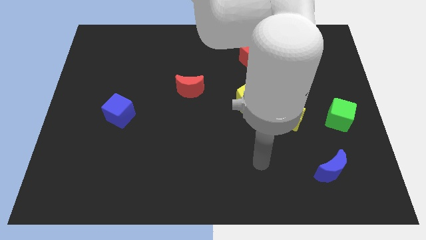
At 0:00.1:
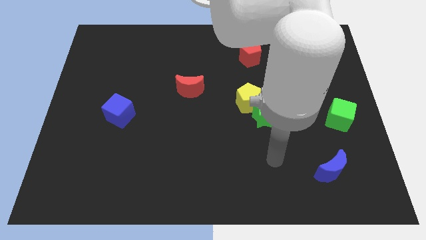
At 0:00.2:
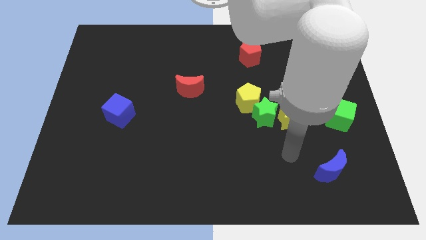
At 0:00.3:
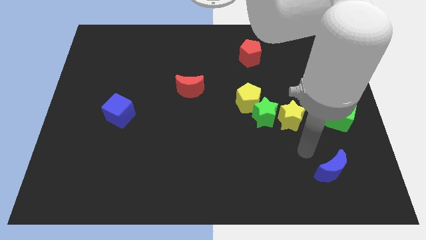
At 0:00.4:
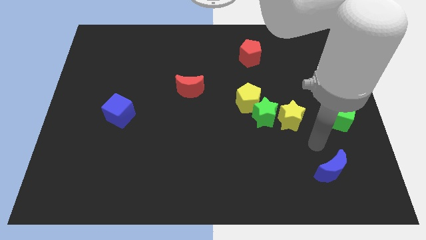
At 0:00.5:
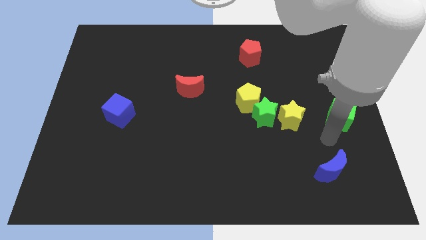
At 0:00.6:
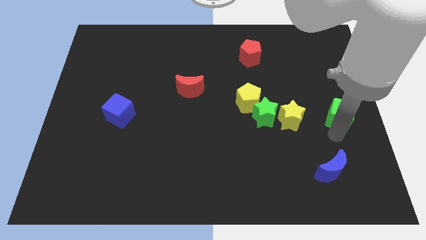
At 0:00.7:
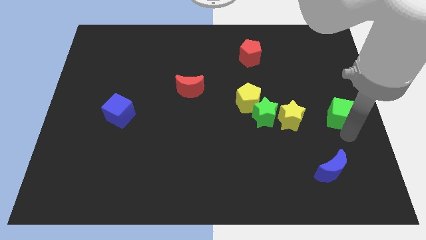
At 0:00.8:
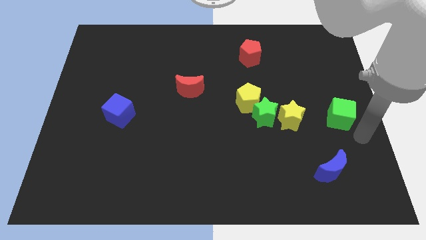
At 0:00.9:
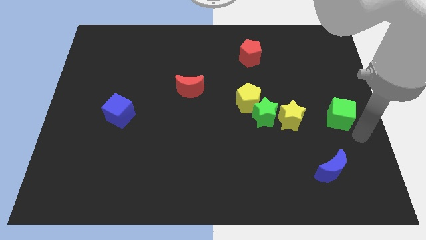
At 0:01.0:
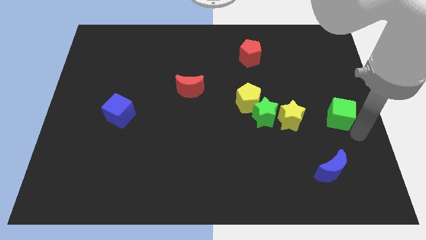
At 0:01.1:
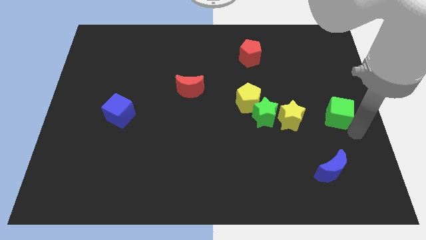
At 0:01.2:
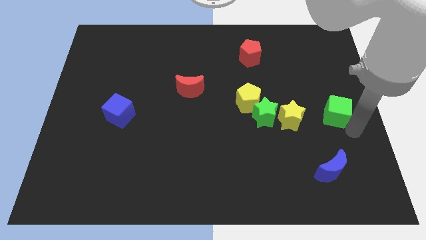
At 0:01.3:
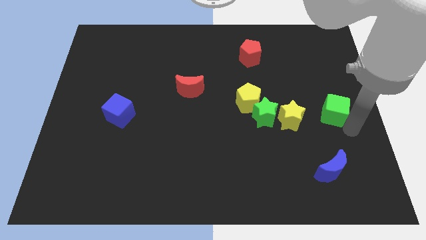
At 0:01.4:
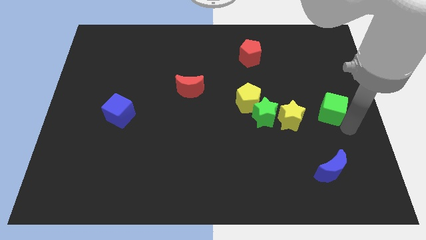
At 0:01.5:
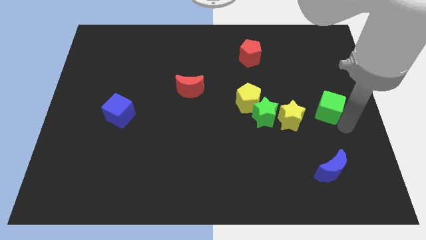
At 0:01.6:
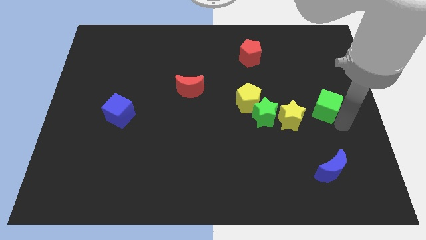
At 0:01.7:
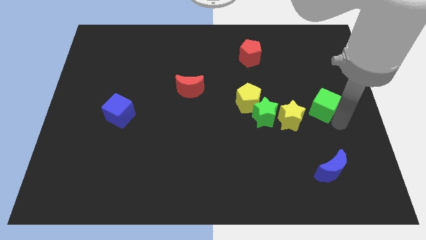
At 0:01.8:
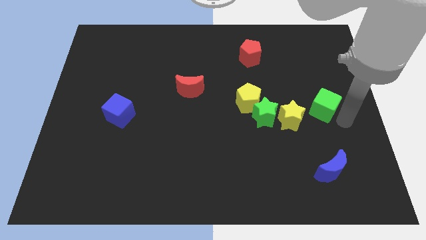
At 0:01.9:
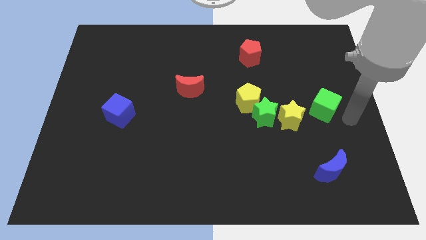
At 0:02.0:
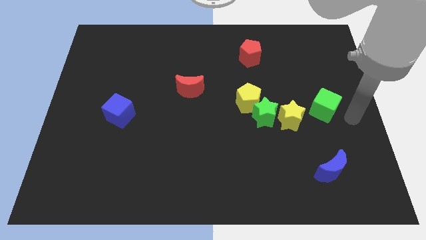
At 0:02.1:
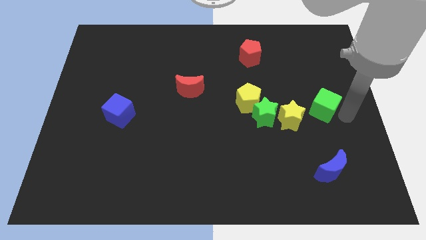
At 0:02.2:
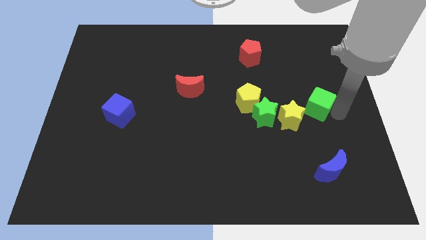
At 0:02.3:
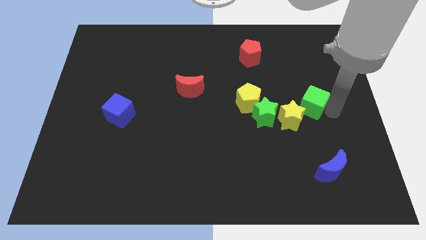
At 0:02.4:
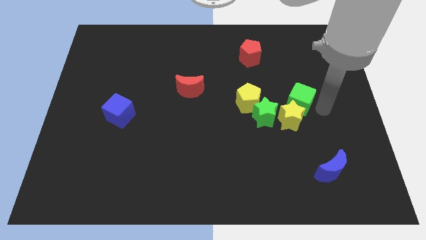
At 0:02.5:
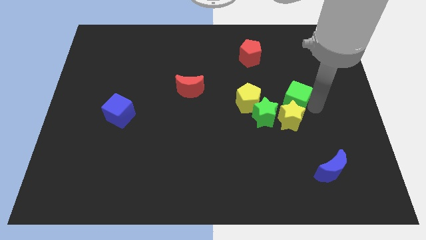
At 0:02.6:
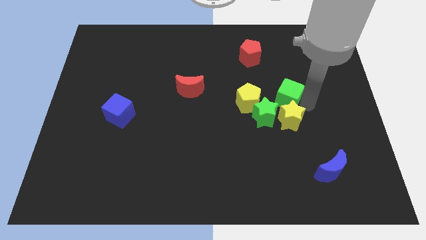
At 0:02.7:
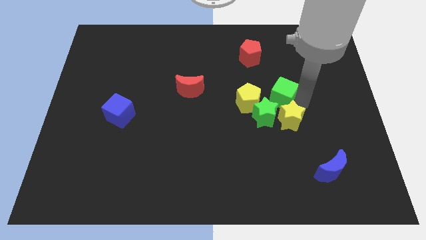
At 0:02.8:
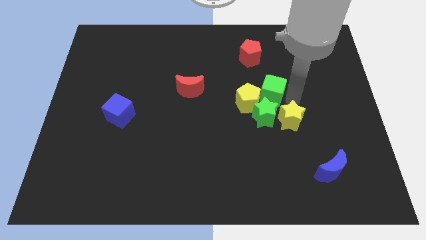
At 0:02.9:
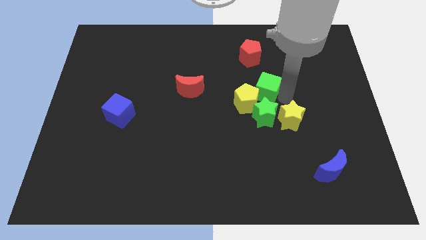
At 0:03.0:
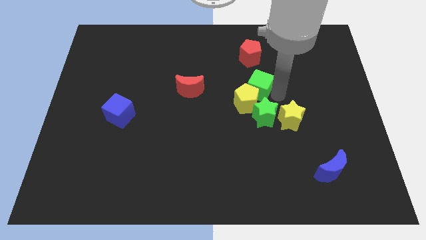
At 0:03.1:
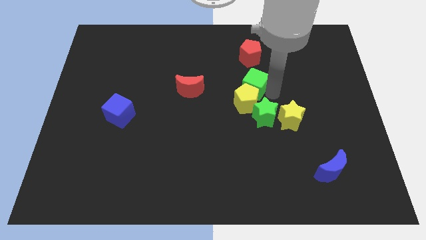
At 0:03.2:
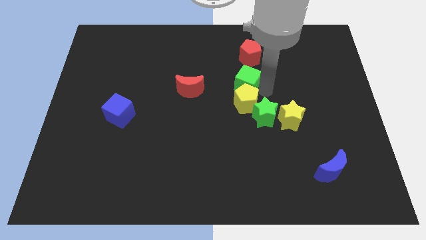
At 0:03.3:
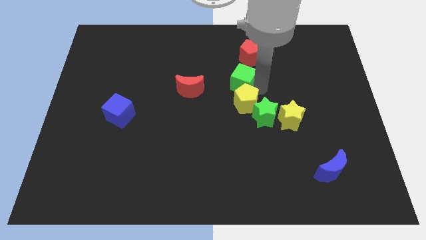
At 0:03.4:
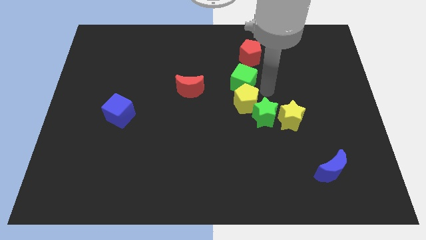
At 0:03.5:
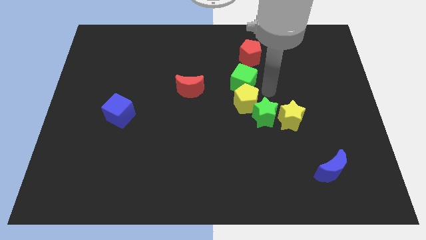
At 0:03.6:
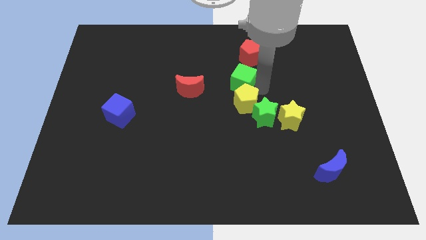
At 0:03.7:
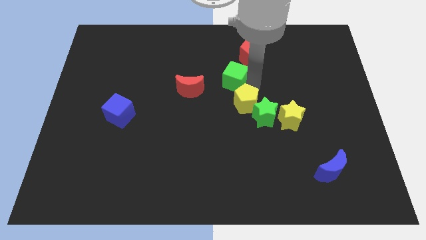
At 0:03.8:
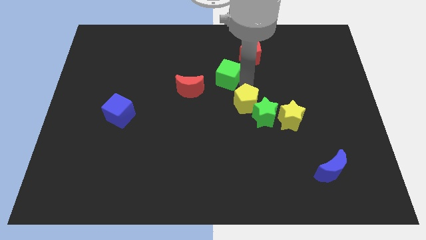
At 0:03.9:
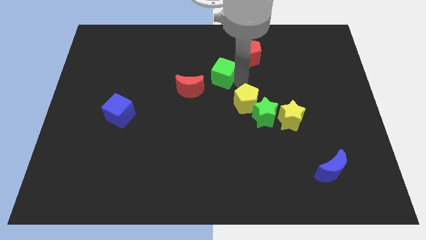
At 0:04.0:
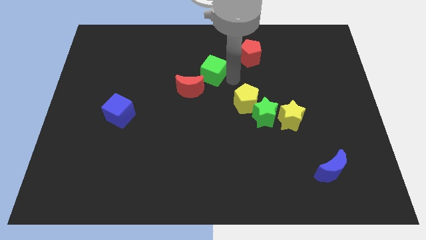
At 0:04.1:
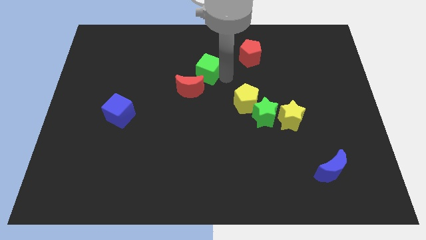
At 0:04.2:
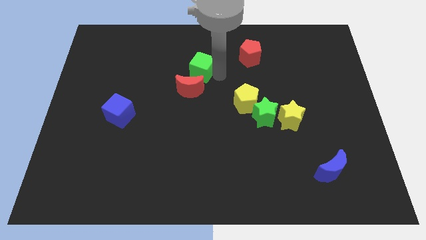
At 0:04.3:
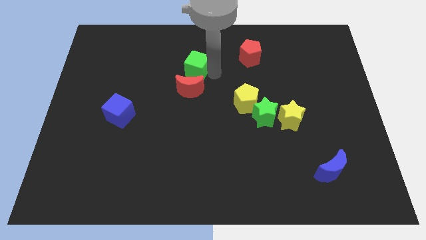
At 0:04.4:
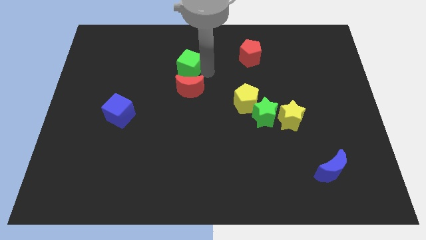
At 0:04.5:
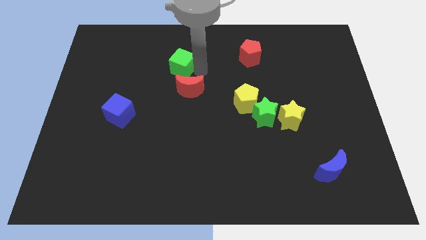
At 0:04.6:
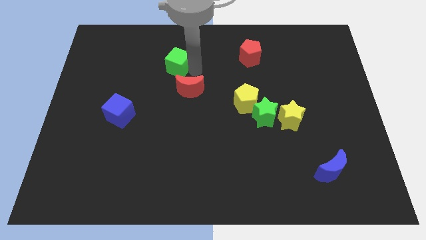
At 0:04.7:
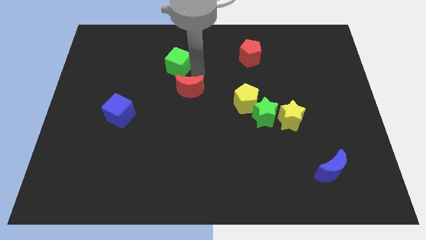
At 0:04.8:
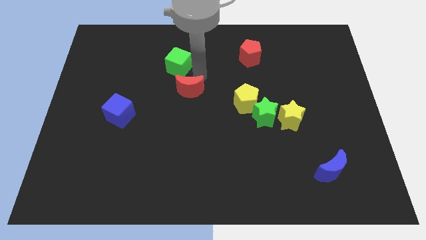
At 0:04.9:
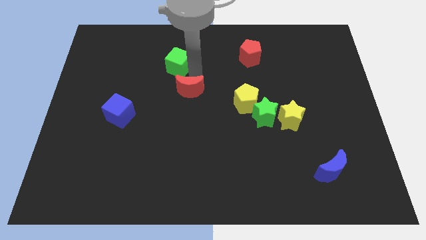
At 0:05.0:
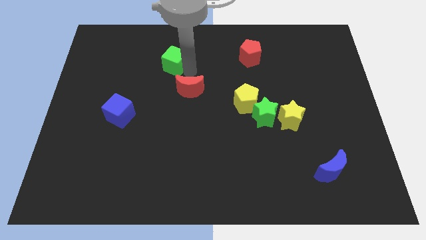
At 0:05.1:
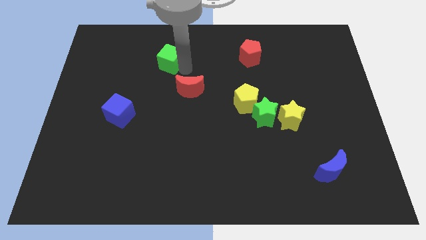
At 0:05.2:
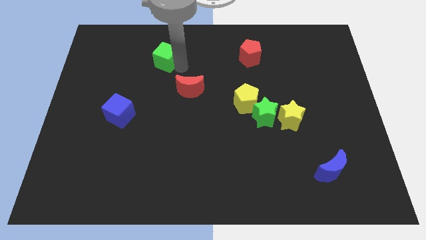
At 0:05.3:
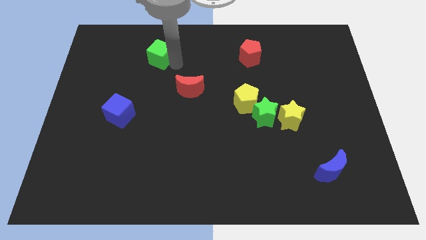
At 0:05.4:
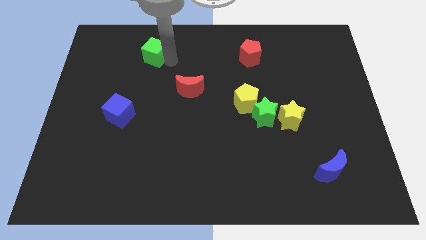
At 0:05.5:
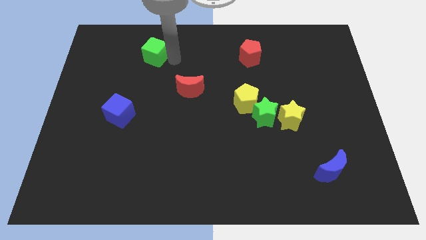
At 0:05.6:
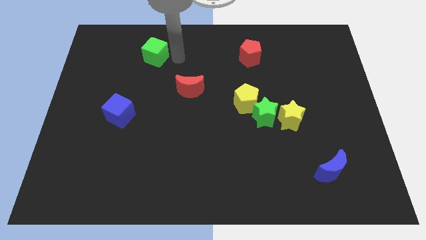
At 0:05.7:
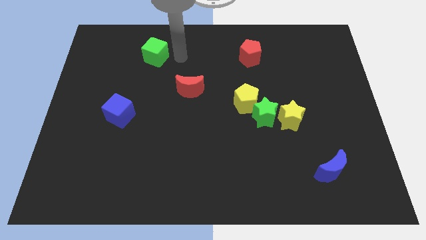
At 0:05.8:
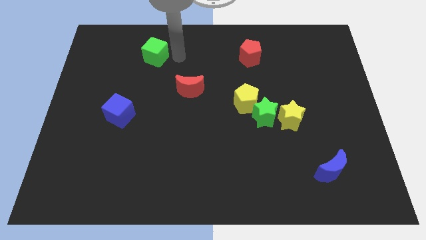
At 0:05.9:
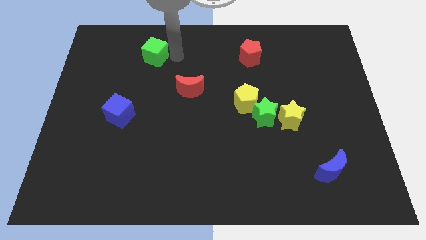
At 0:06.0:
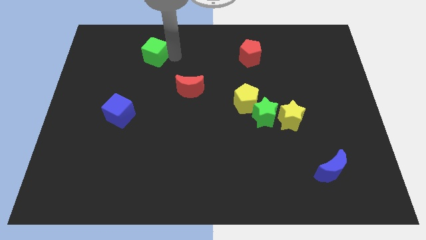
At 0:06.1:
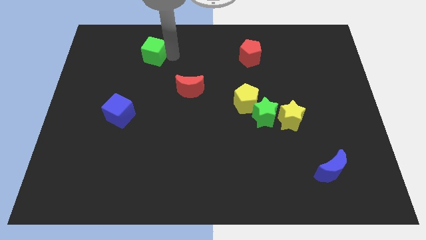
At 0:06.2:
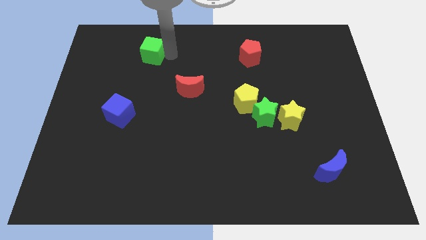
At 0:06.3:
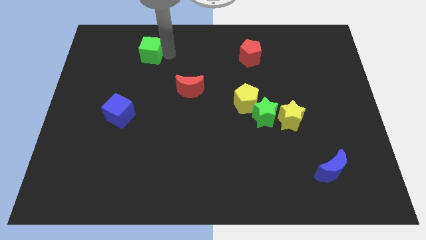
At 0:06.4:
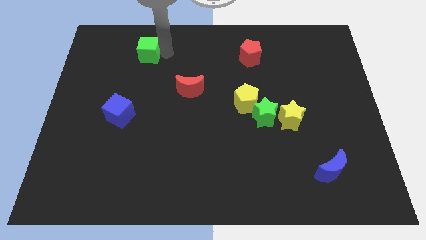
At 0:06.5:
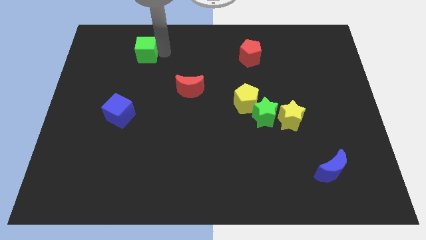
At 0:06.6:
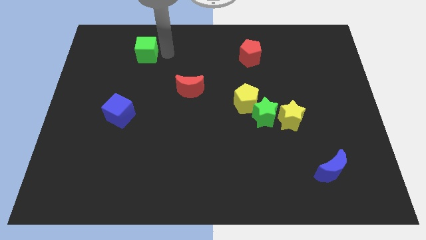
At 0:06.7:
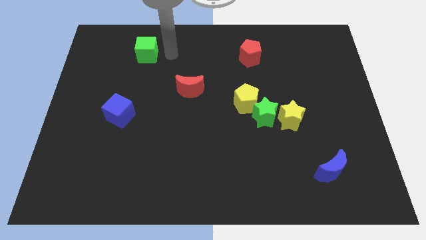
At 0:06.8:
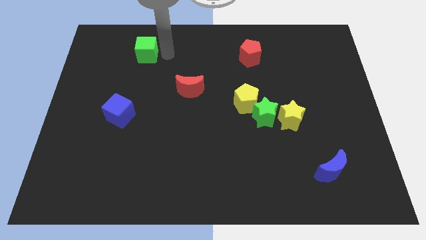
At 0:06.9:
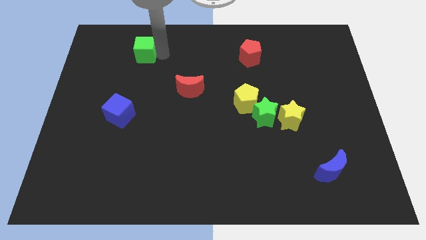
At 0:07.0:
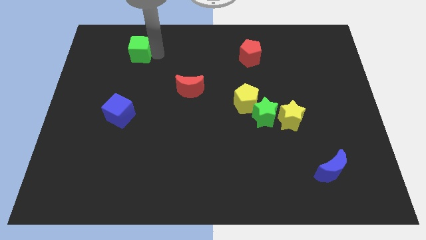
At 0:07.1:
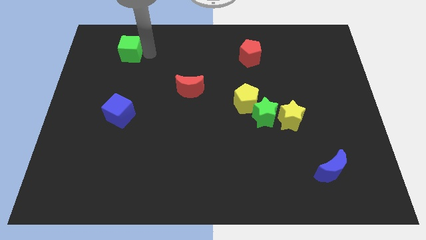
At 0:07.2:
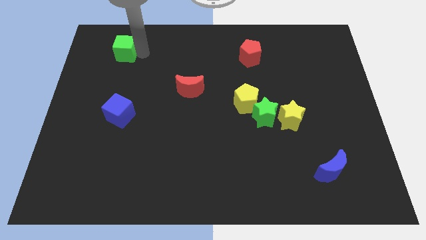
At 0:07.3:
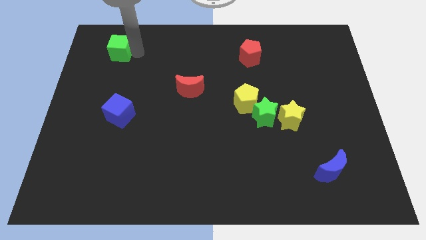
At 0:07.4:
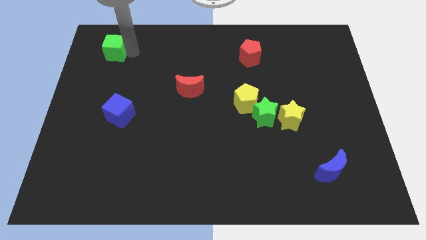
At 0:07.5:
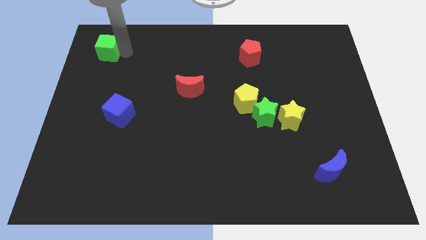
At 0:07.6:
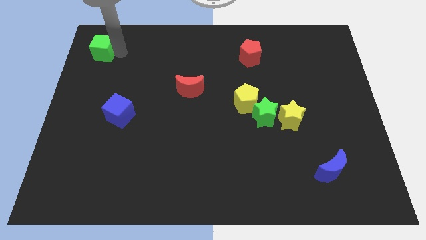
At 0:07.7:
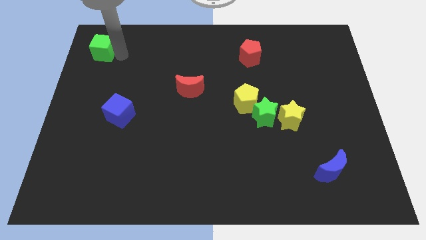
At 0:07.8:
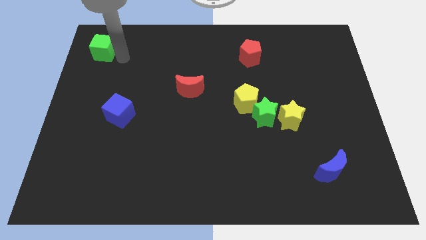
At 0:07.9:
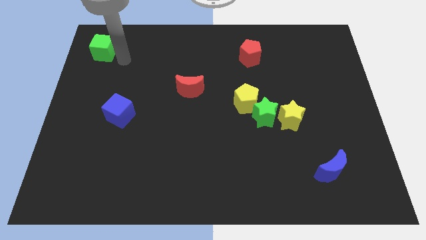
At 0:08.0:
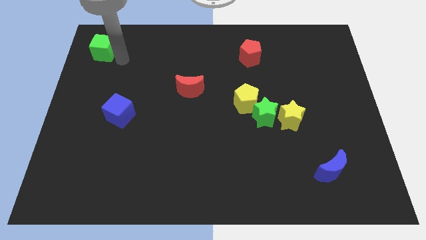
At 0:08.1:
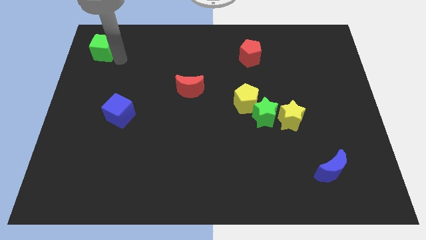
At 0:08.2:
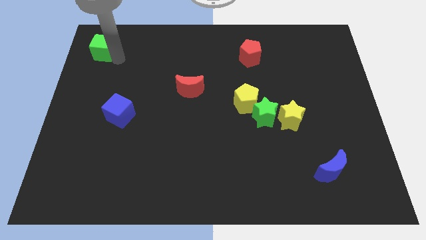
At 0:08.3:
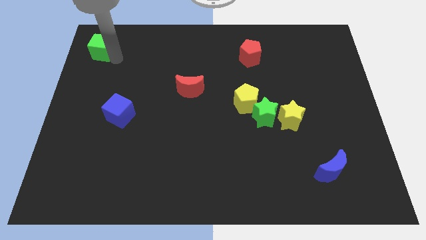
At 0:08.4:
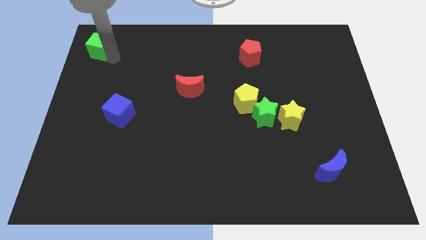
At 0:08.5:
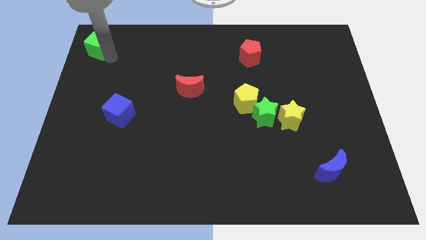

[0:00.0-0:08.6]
put the green cube to the top left
